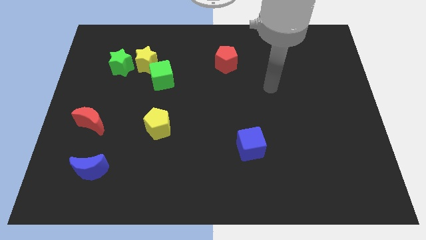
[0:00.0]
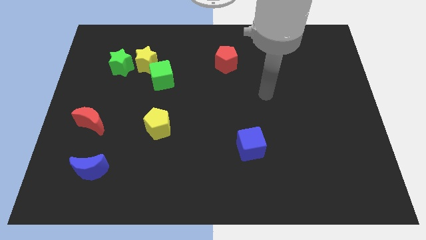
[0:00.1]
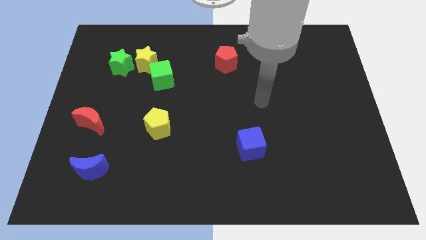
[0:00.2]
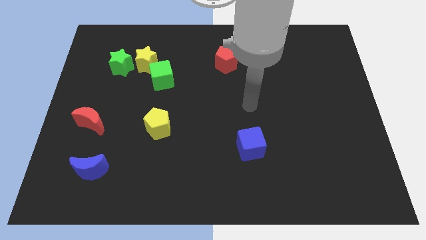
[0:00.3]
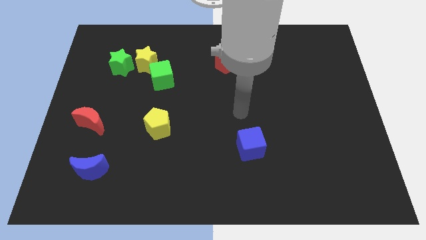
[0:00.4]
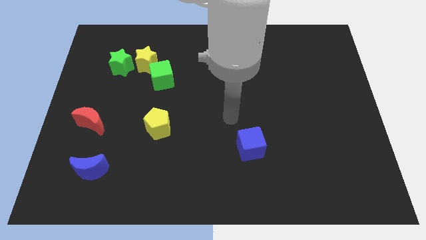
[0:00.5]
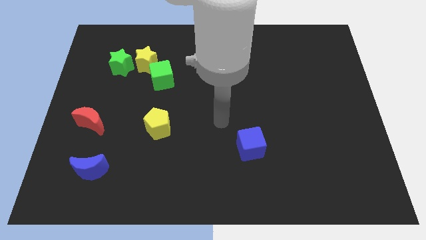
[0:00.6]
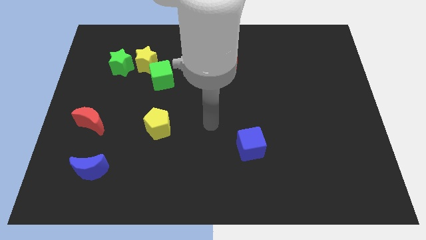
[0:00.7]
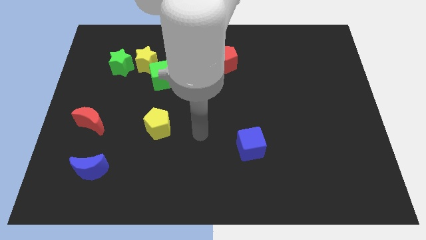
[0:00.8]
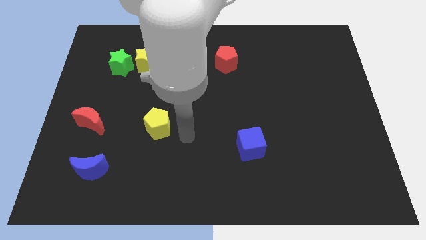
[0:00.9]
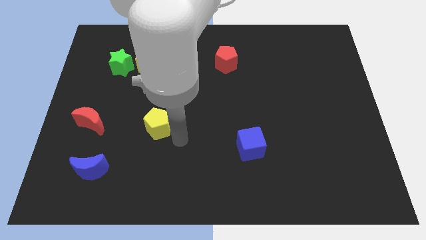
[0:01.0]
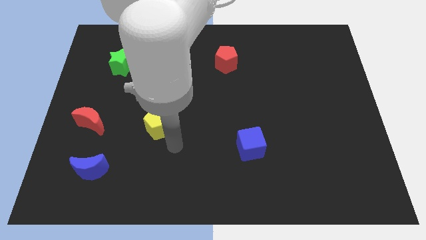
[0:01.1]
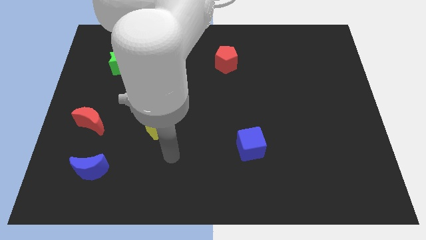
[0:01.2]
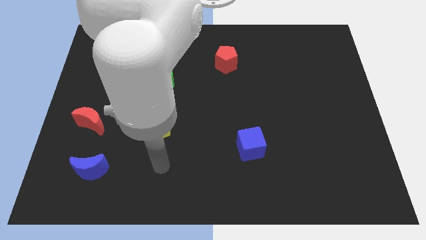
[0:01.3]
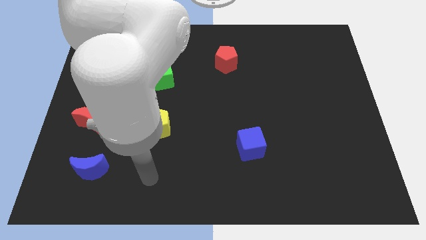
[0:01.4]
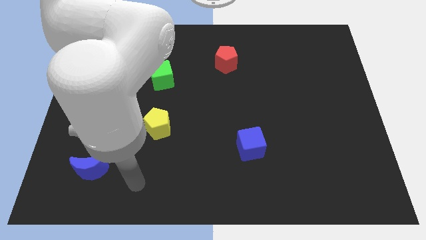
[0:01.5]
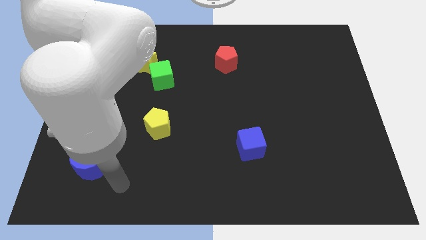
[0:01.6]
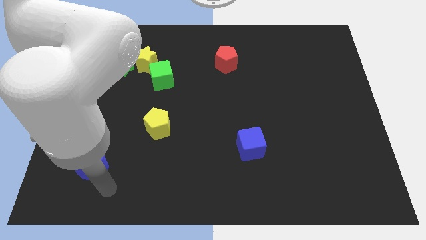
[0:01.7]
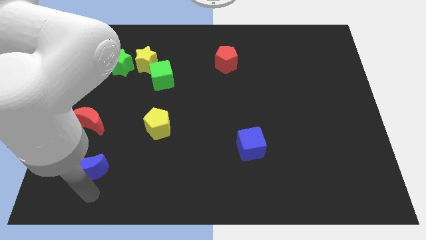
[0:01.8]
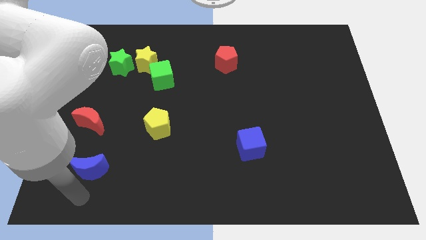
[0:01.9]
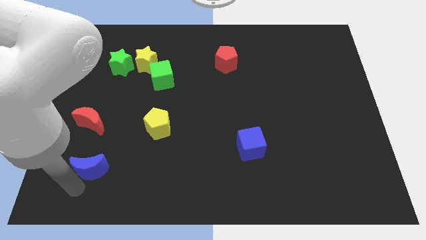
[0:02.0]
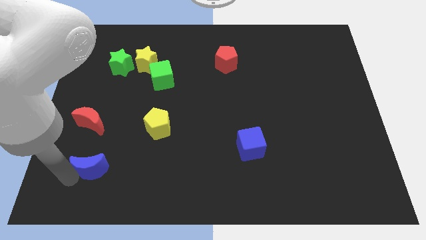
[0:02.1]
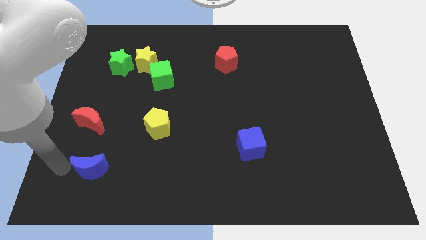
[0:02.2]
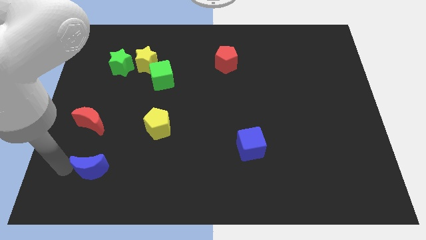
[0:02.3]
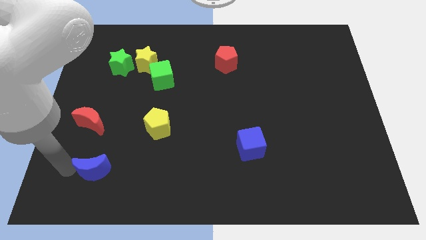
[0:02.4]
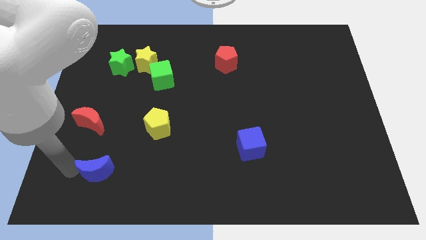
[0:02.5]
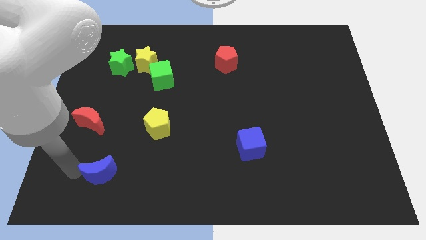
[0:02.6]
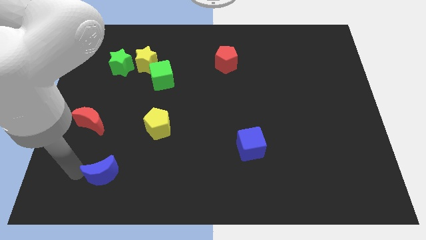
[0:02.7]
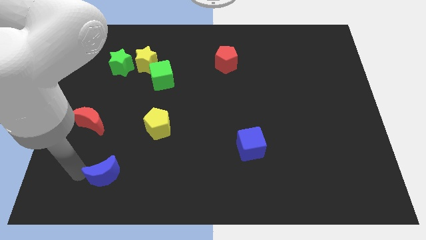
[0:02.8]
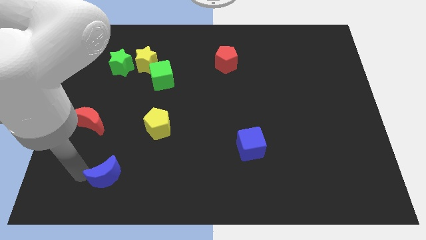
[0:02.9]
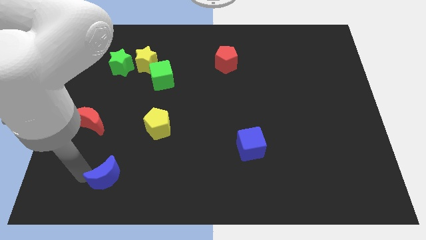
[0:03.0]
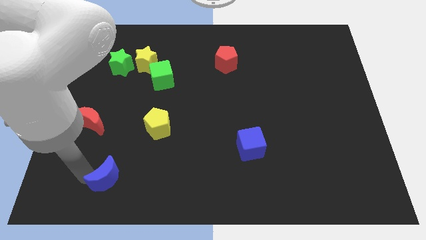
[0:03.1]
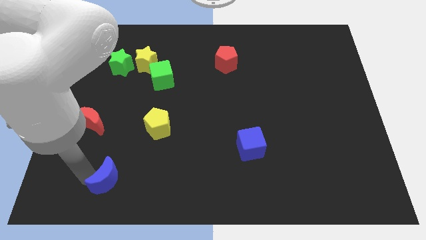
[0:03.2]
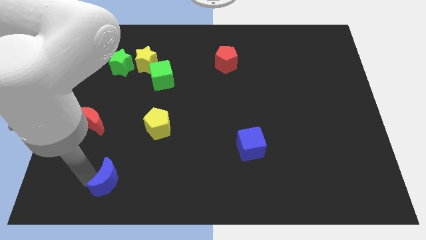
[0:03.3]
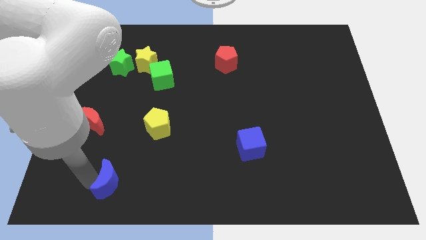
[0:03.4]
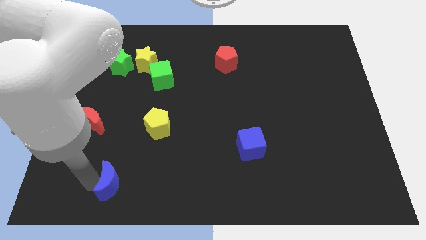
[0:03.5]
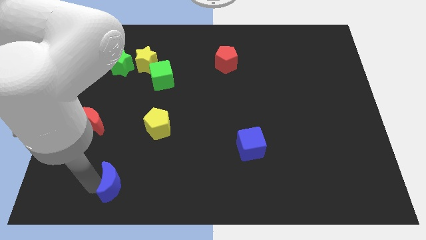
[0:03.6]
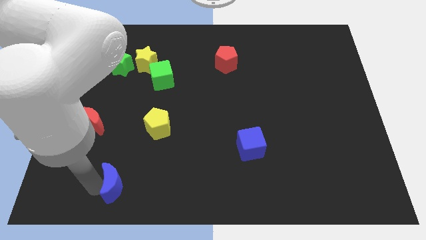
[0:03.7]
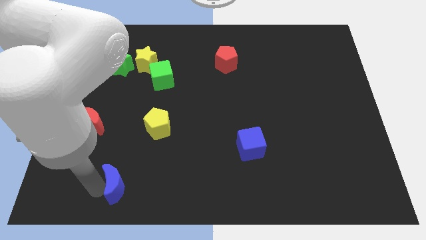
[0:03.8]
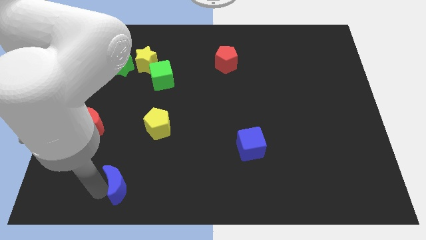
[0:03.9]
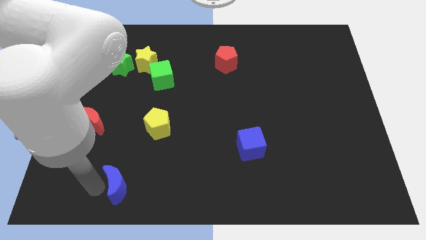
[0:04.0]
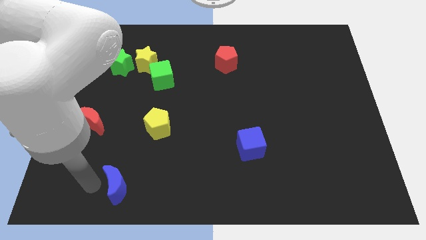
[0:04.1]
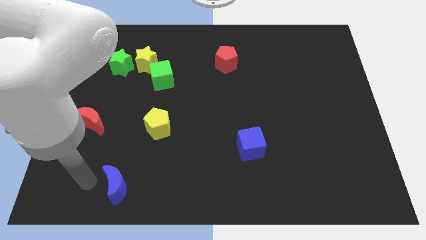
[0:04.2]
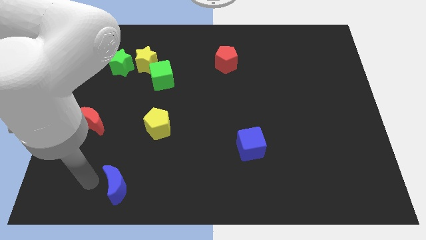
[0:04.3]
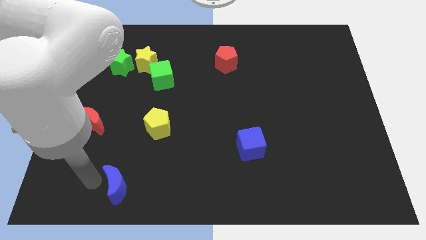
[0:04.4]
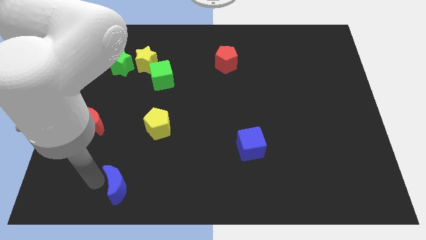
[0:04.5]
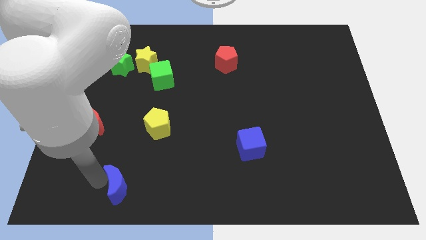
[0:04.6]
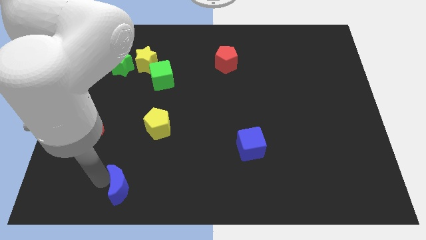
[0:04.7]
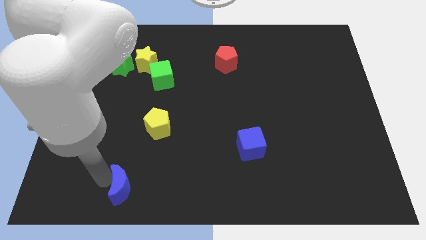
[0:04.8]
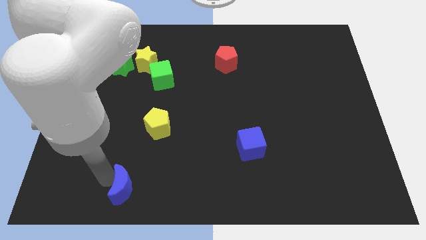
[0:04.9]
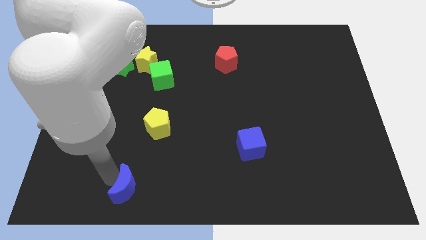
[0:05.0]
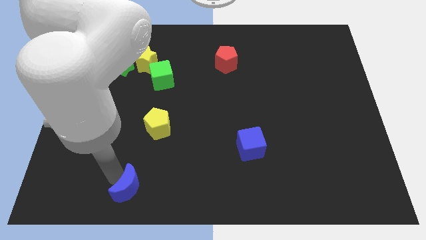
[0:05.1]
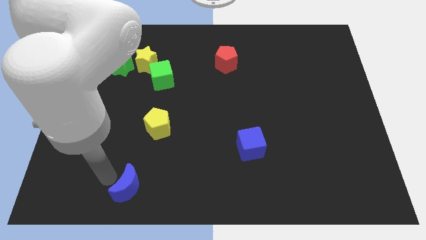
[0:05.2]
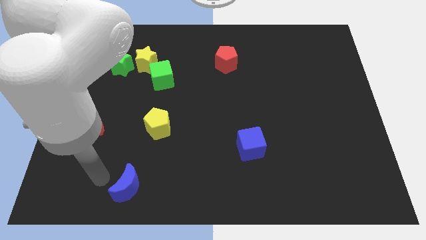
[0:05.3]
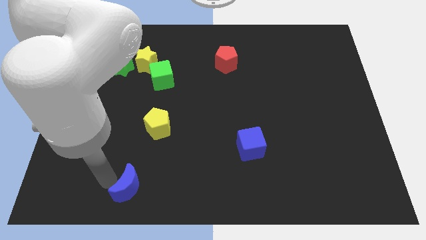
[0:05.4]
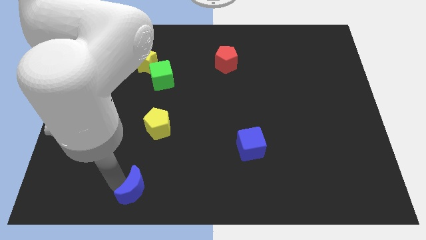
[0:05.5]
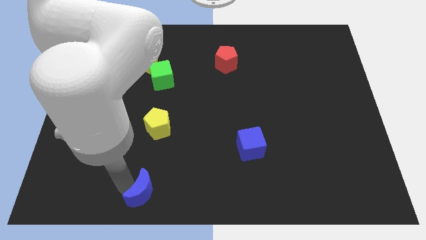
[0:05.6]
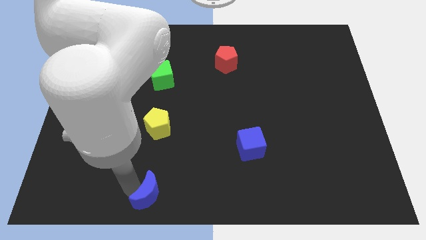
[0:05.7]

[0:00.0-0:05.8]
move the blue moon to the bottom
